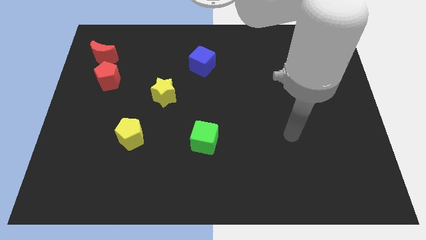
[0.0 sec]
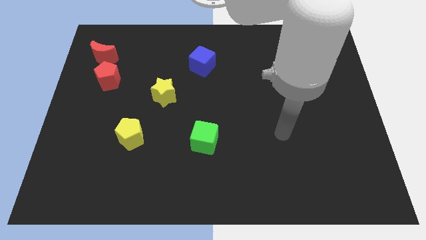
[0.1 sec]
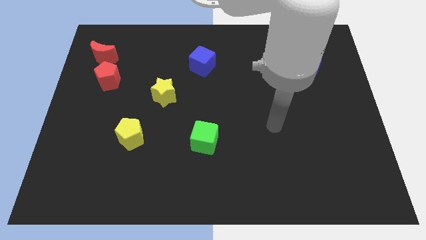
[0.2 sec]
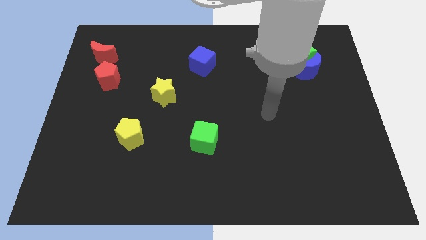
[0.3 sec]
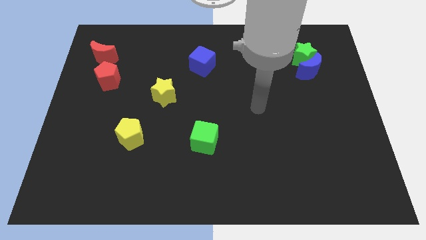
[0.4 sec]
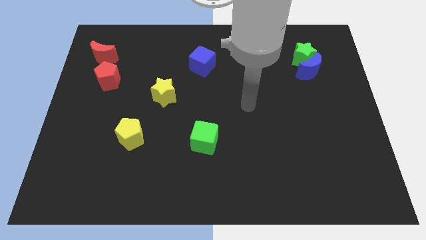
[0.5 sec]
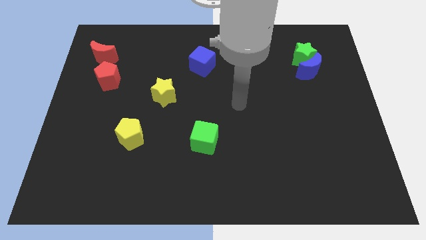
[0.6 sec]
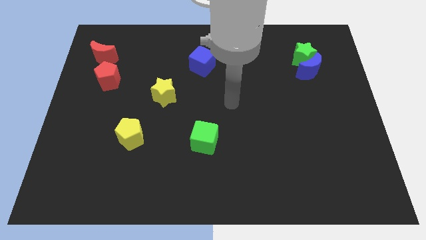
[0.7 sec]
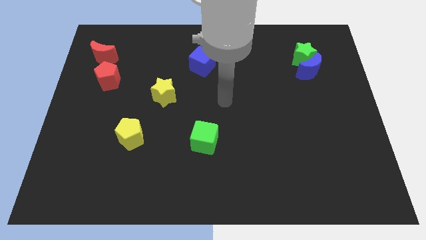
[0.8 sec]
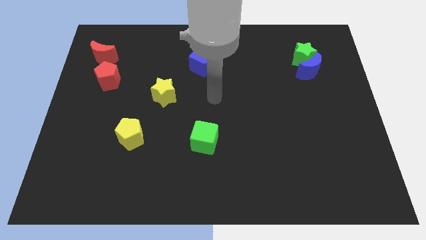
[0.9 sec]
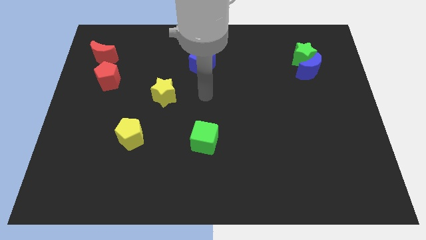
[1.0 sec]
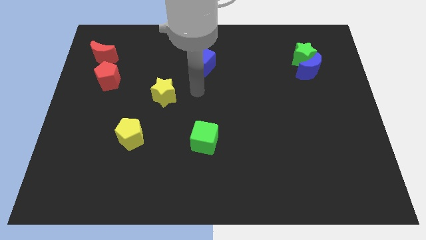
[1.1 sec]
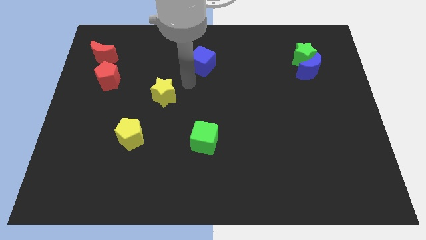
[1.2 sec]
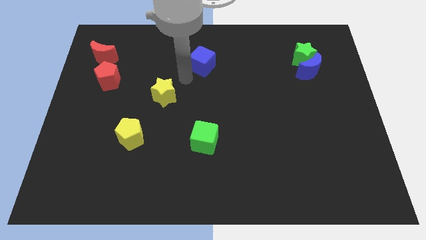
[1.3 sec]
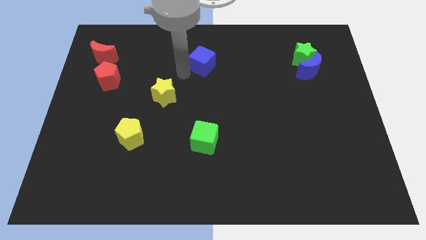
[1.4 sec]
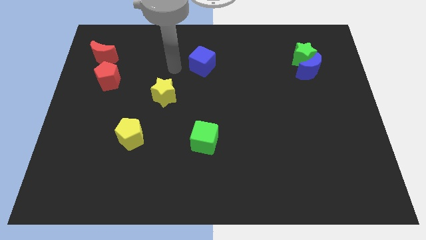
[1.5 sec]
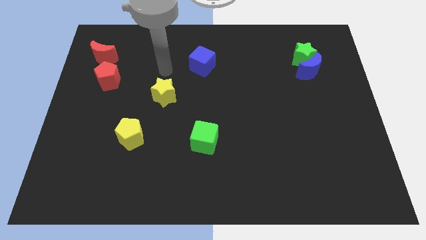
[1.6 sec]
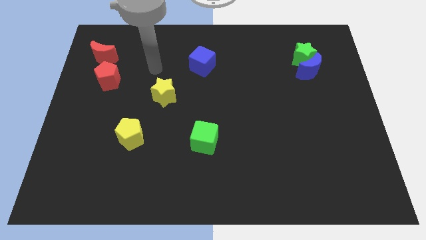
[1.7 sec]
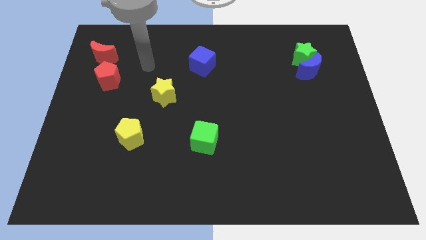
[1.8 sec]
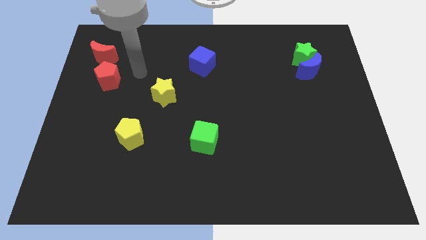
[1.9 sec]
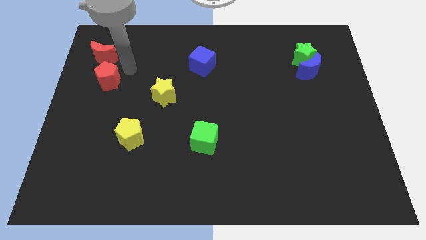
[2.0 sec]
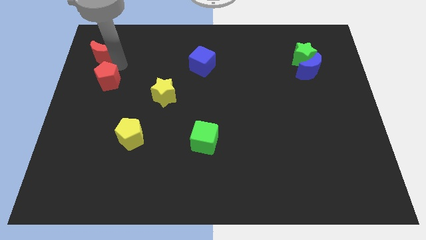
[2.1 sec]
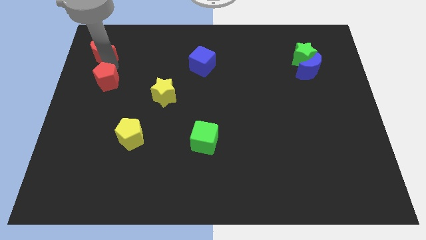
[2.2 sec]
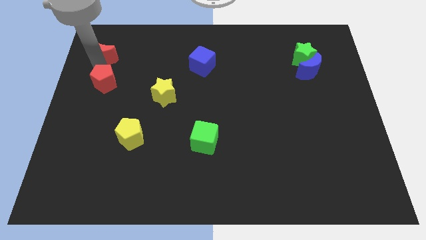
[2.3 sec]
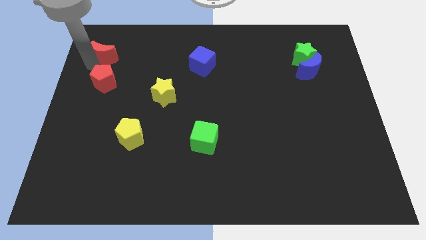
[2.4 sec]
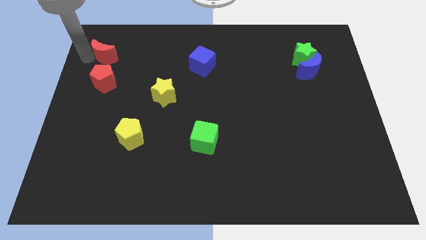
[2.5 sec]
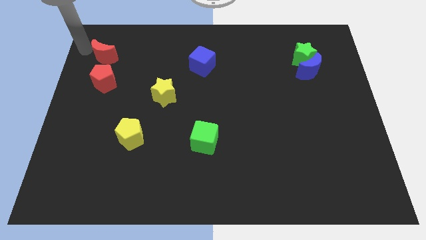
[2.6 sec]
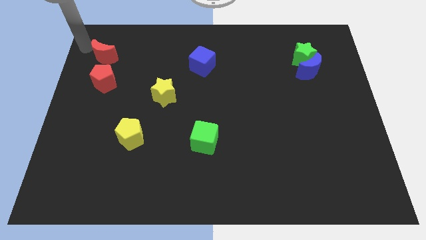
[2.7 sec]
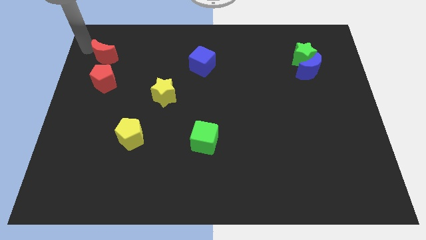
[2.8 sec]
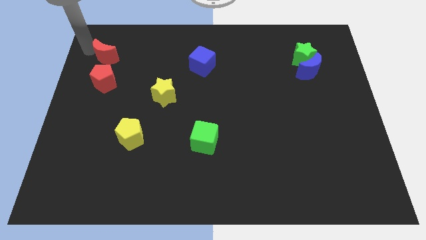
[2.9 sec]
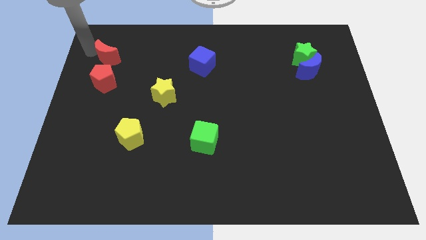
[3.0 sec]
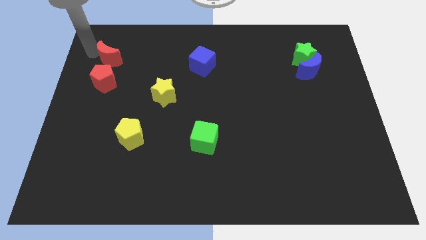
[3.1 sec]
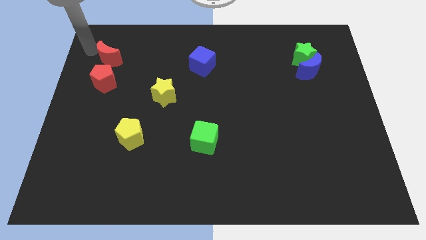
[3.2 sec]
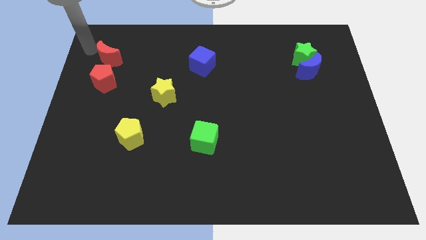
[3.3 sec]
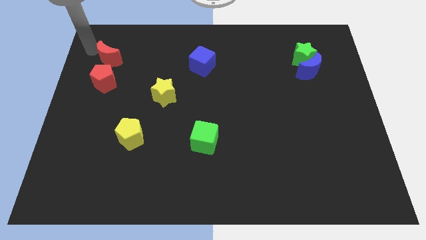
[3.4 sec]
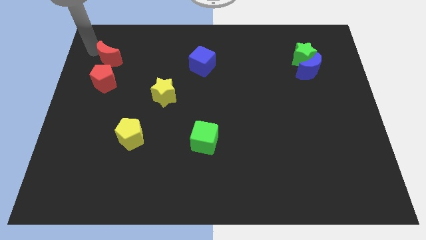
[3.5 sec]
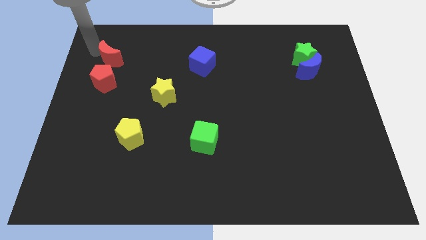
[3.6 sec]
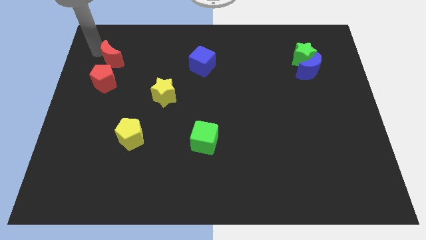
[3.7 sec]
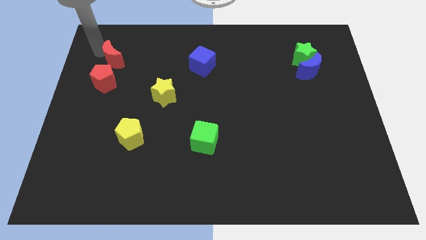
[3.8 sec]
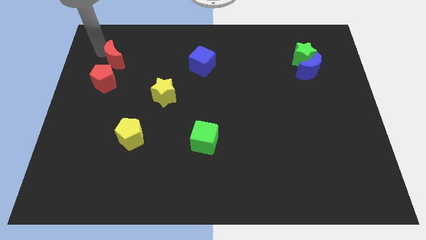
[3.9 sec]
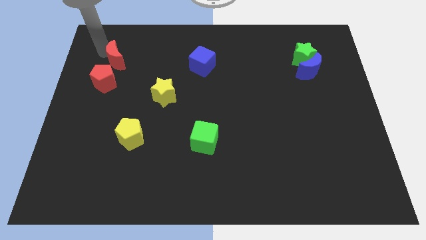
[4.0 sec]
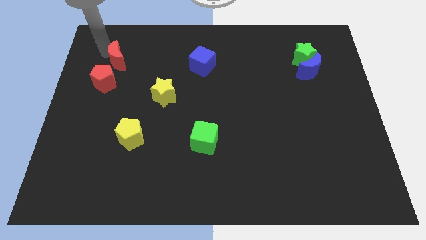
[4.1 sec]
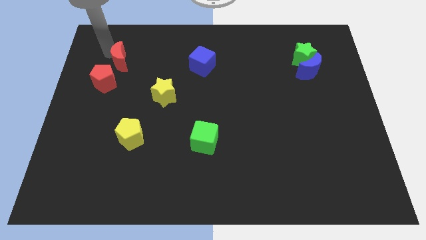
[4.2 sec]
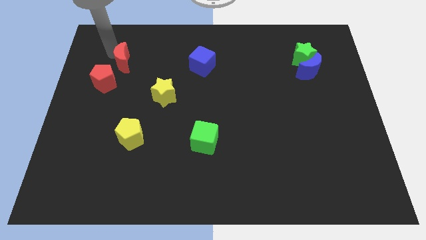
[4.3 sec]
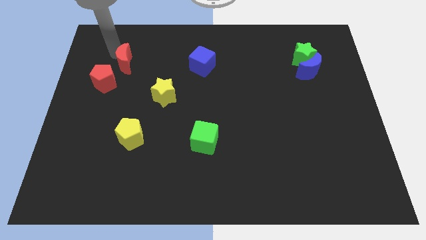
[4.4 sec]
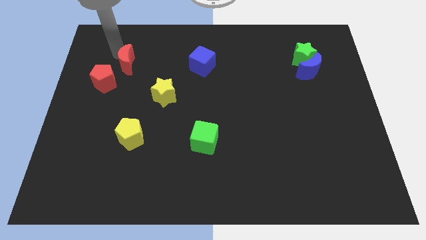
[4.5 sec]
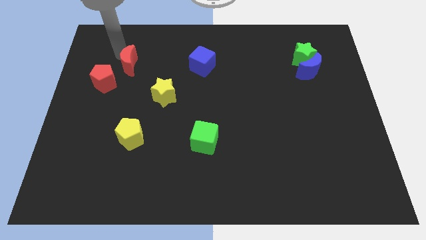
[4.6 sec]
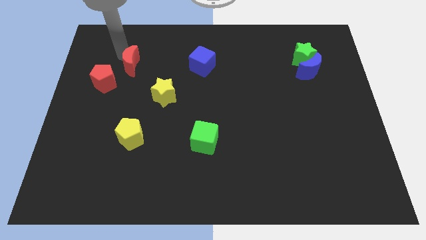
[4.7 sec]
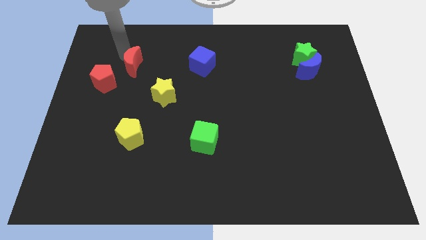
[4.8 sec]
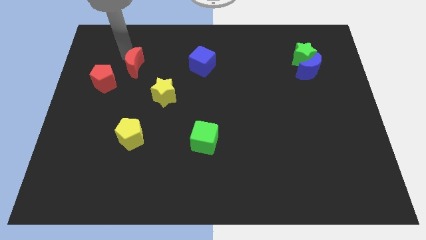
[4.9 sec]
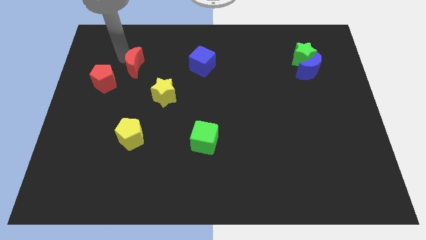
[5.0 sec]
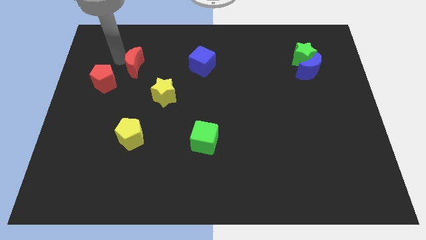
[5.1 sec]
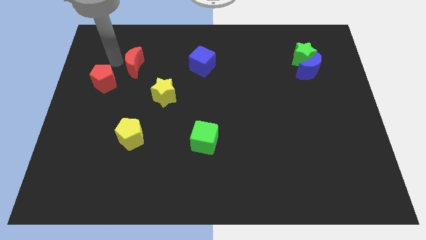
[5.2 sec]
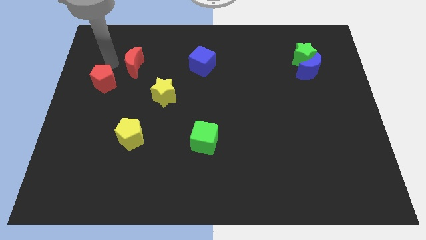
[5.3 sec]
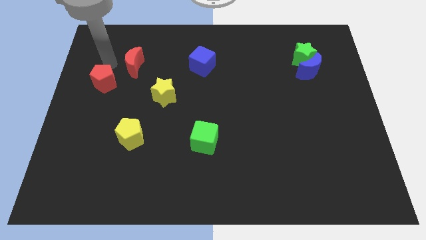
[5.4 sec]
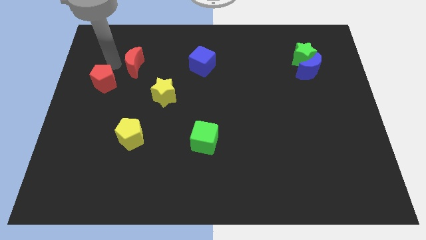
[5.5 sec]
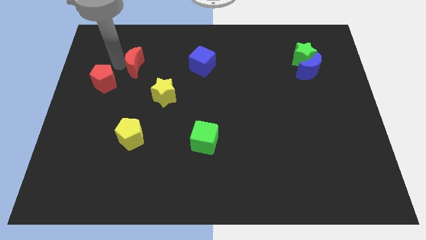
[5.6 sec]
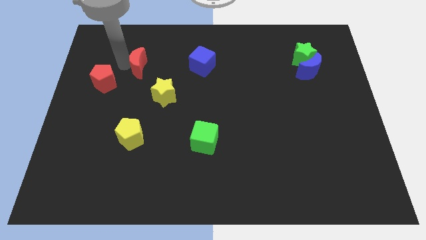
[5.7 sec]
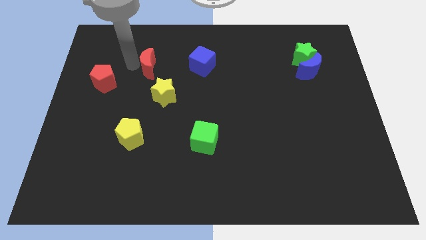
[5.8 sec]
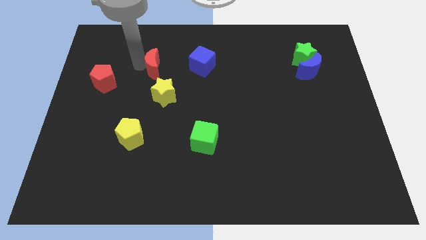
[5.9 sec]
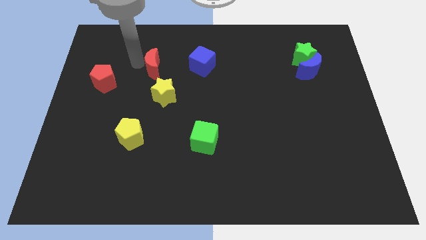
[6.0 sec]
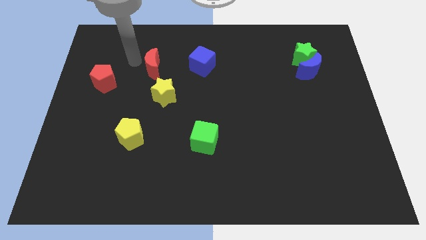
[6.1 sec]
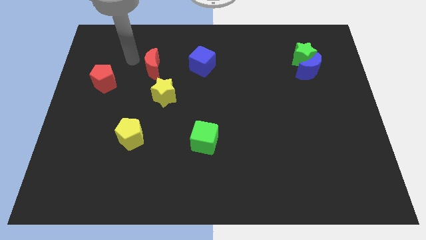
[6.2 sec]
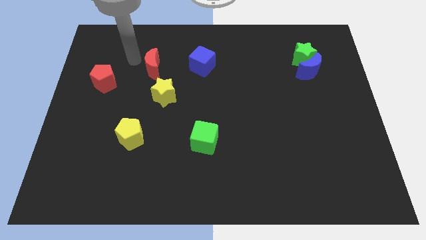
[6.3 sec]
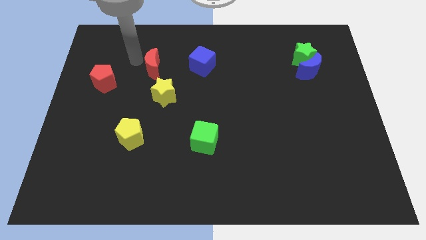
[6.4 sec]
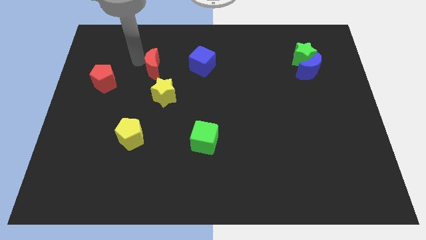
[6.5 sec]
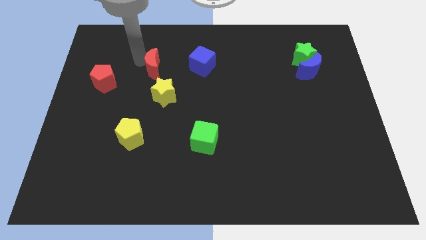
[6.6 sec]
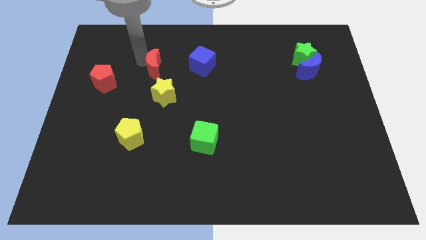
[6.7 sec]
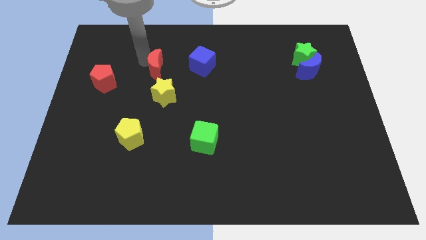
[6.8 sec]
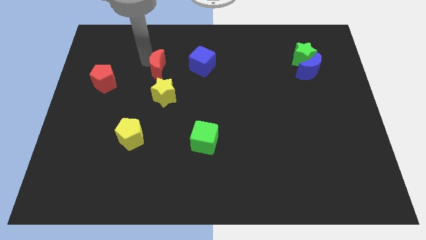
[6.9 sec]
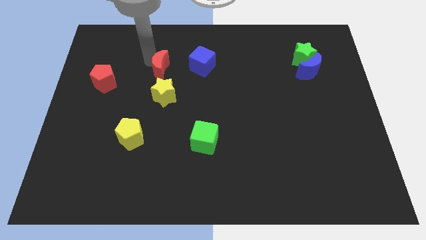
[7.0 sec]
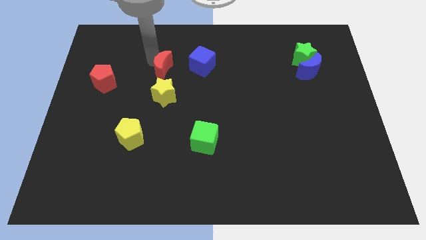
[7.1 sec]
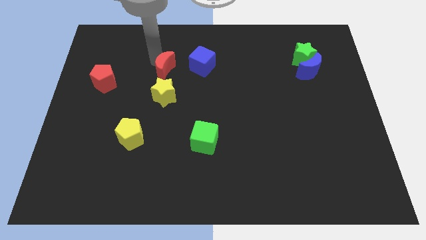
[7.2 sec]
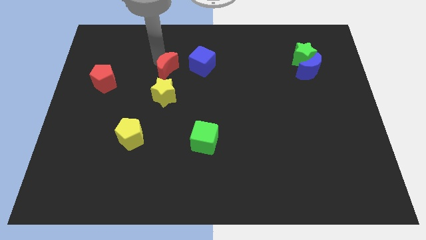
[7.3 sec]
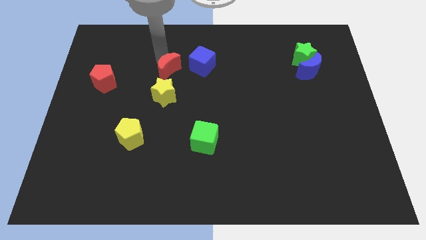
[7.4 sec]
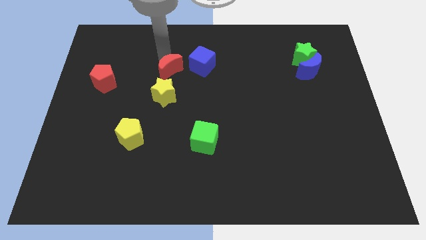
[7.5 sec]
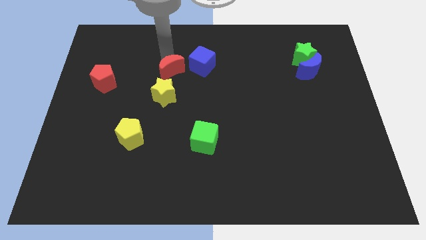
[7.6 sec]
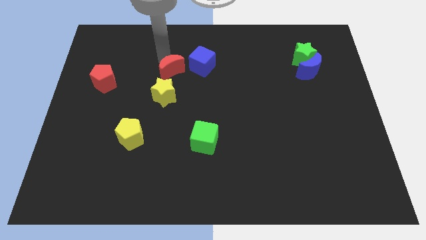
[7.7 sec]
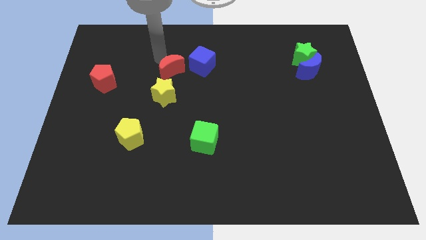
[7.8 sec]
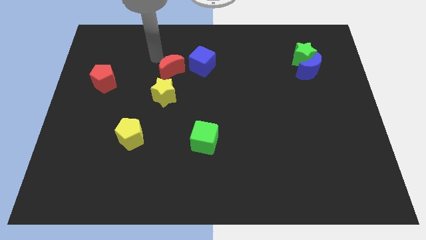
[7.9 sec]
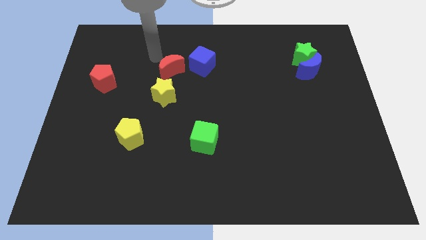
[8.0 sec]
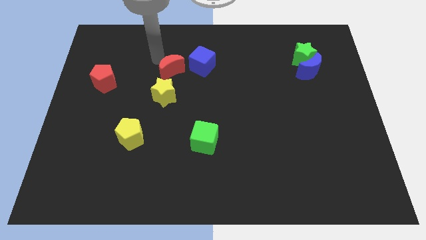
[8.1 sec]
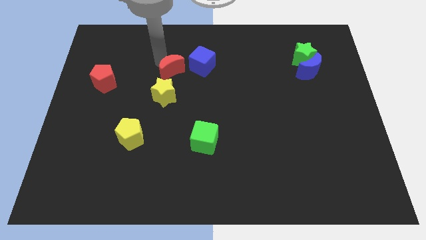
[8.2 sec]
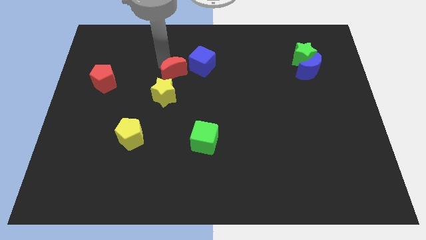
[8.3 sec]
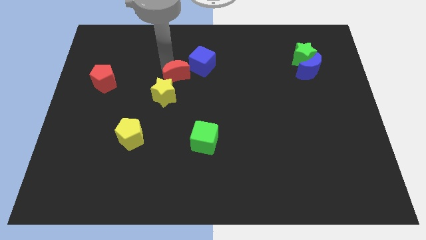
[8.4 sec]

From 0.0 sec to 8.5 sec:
push the red moon to the center of the board
